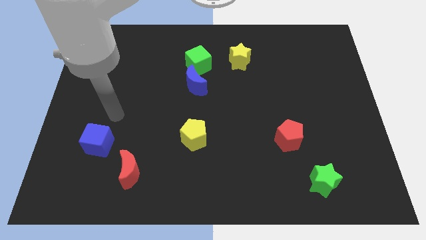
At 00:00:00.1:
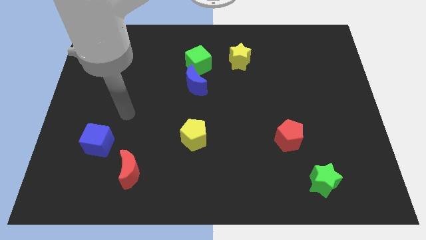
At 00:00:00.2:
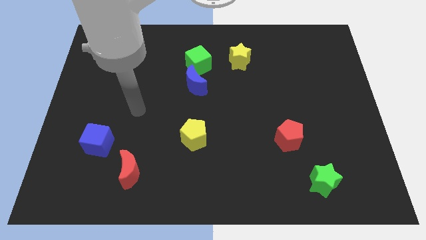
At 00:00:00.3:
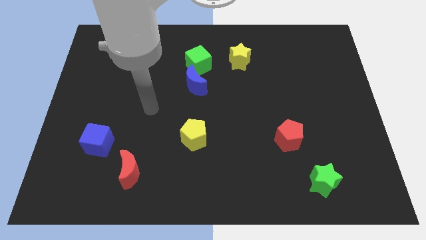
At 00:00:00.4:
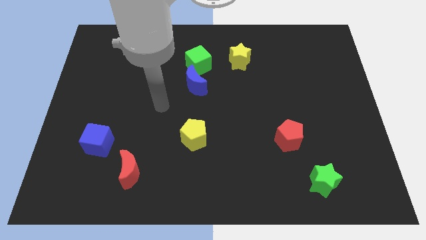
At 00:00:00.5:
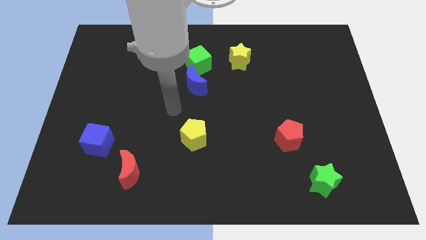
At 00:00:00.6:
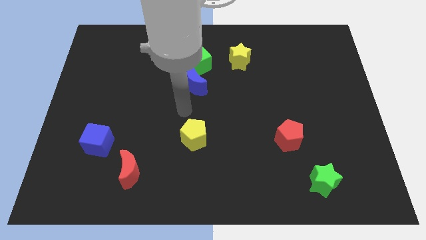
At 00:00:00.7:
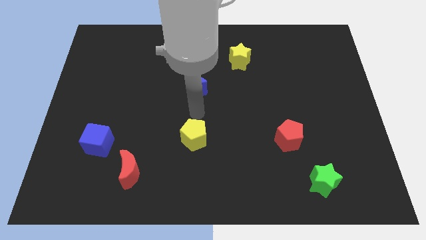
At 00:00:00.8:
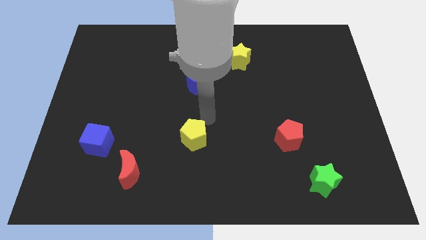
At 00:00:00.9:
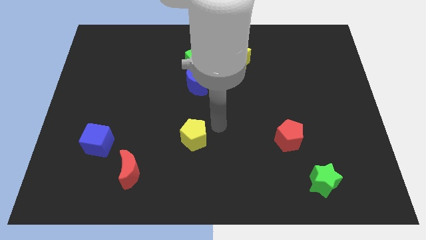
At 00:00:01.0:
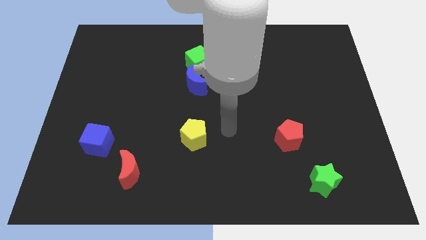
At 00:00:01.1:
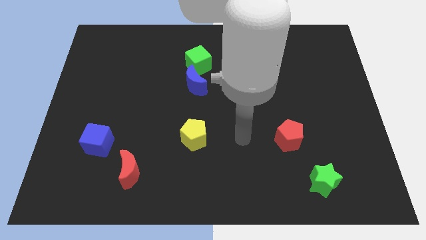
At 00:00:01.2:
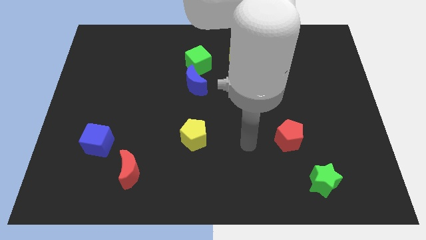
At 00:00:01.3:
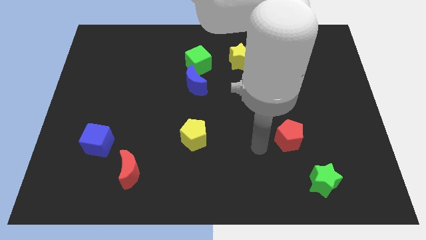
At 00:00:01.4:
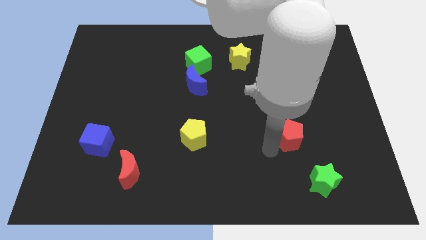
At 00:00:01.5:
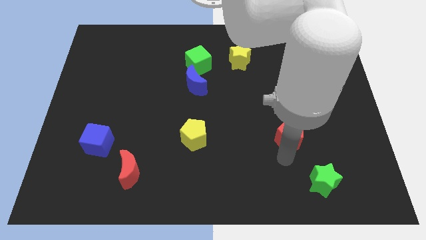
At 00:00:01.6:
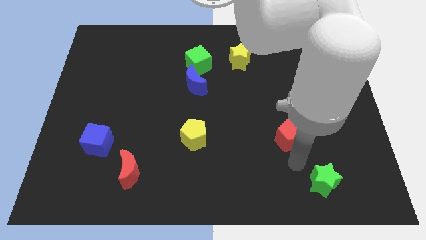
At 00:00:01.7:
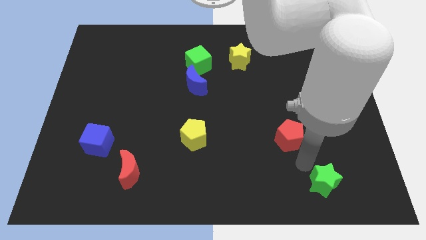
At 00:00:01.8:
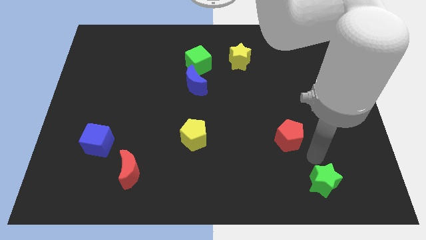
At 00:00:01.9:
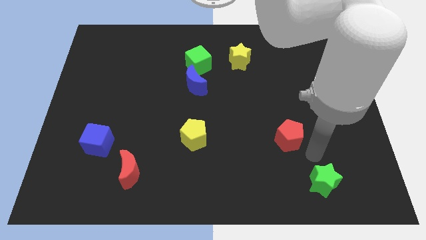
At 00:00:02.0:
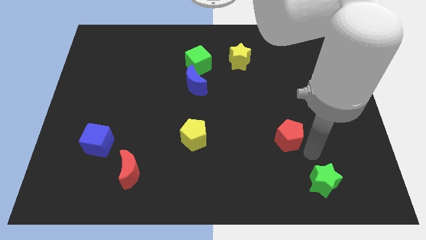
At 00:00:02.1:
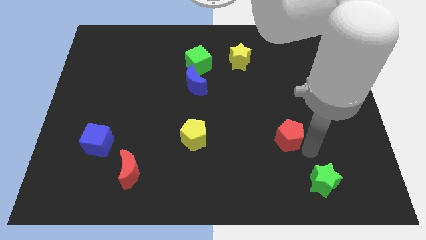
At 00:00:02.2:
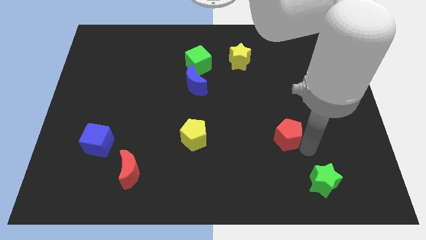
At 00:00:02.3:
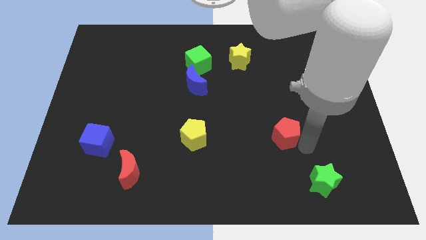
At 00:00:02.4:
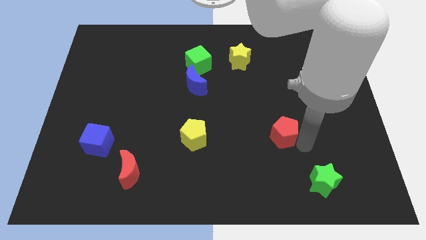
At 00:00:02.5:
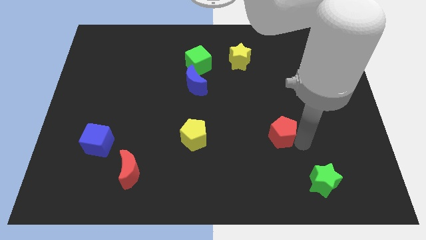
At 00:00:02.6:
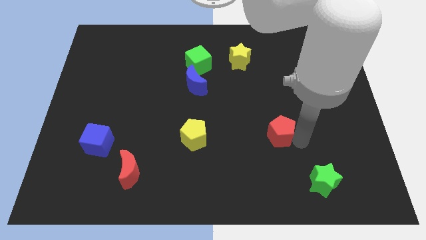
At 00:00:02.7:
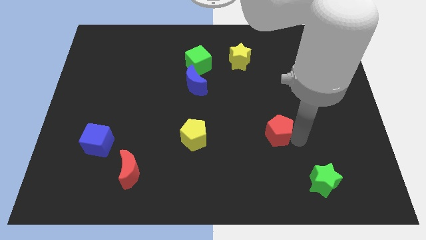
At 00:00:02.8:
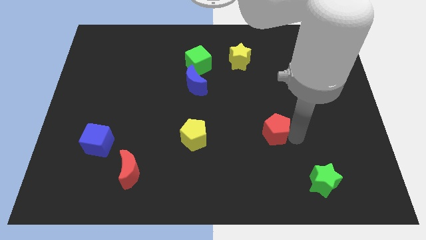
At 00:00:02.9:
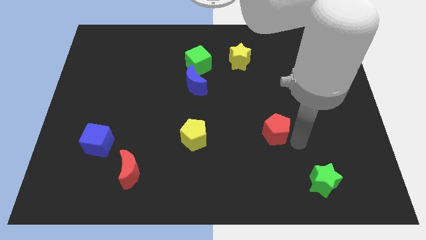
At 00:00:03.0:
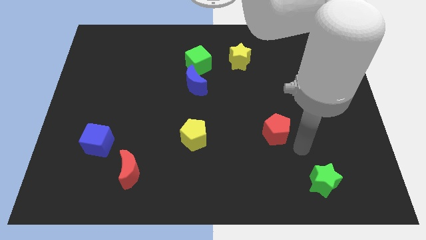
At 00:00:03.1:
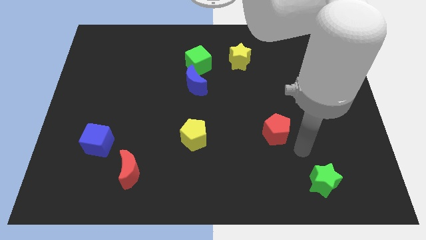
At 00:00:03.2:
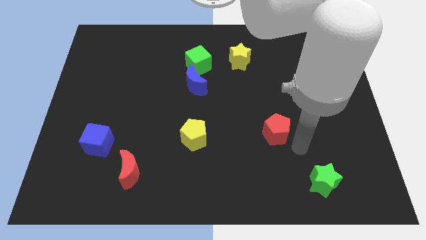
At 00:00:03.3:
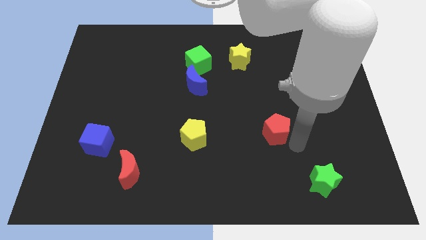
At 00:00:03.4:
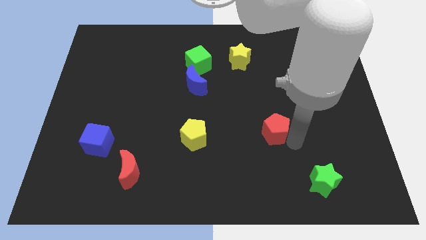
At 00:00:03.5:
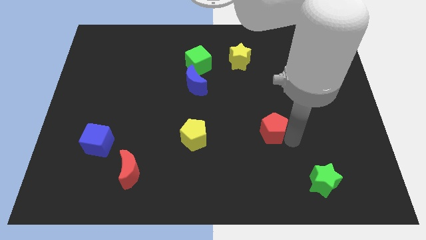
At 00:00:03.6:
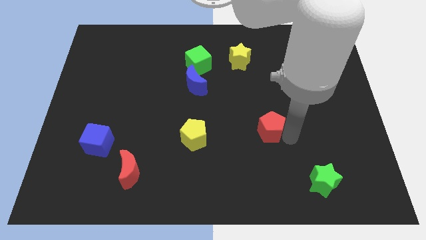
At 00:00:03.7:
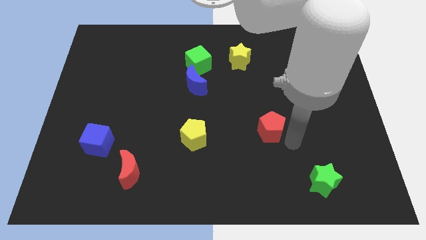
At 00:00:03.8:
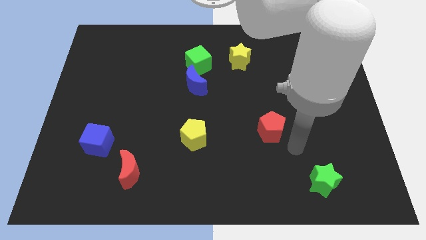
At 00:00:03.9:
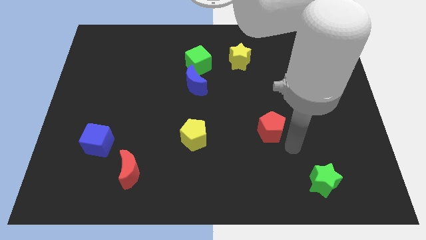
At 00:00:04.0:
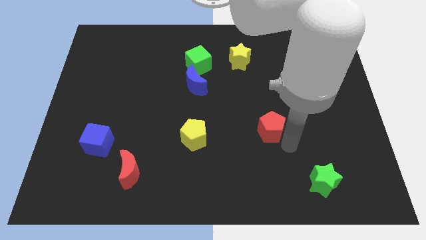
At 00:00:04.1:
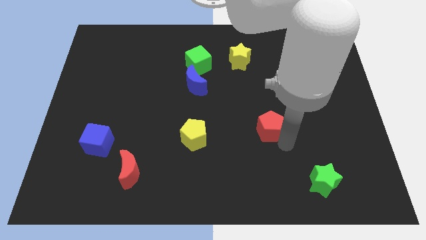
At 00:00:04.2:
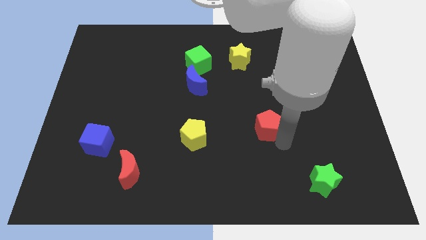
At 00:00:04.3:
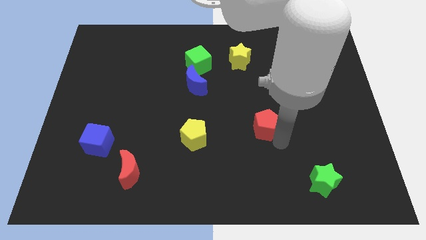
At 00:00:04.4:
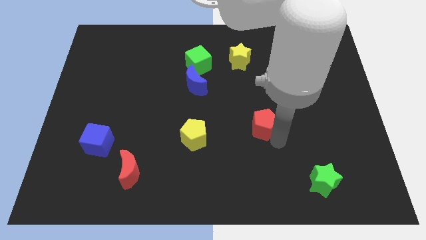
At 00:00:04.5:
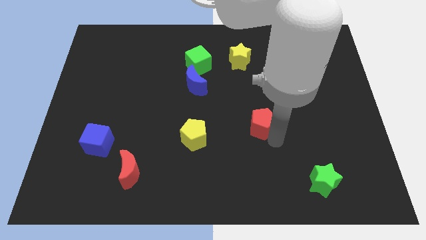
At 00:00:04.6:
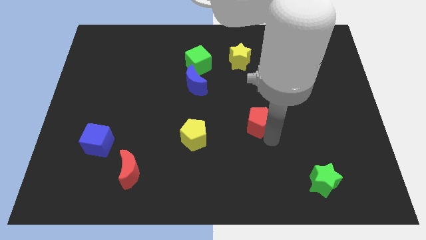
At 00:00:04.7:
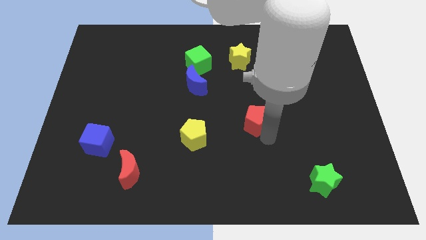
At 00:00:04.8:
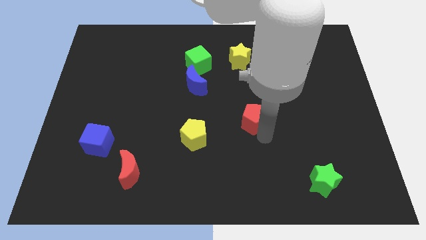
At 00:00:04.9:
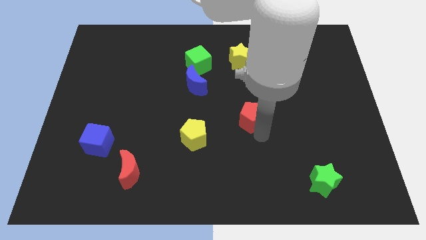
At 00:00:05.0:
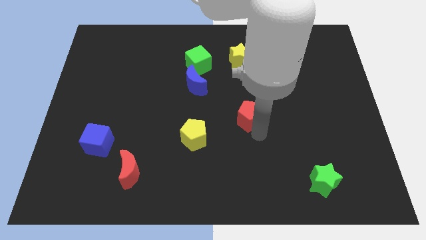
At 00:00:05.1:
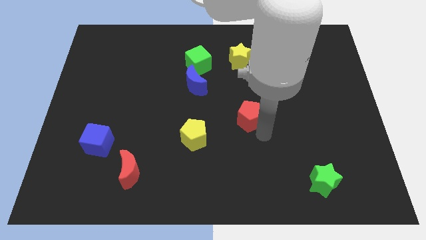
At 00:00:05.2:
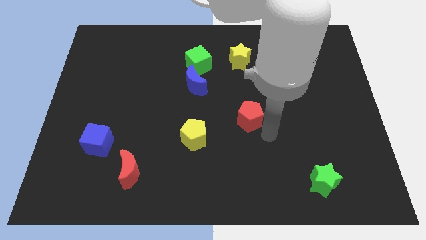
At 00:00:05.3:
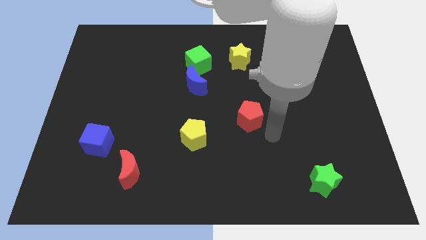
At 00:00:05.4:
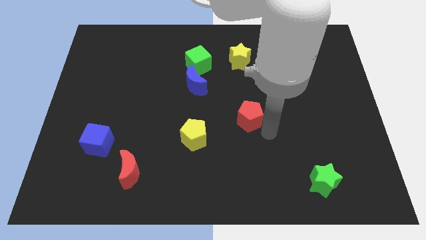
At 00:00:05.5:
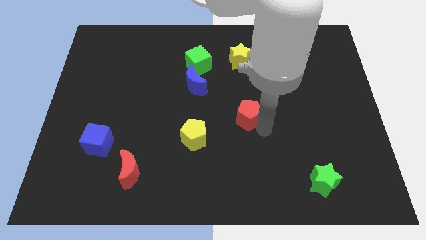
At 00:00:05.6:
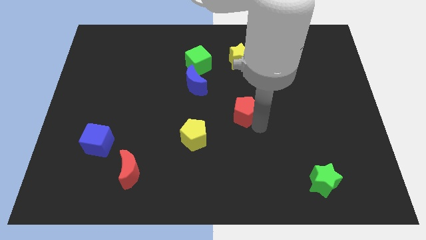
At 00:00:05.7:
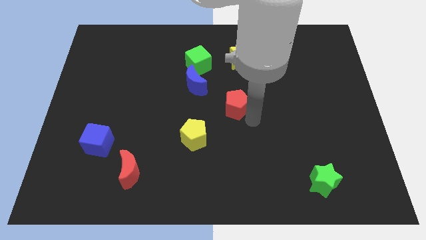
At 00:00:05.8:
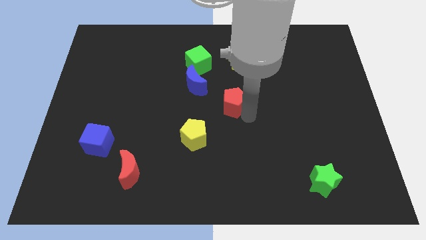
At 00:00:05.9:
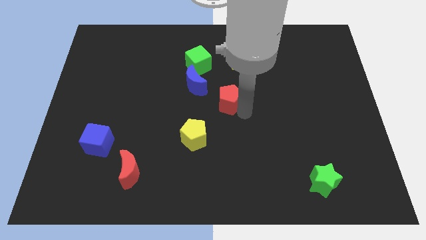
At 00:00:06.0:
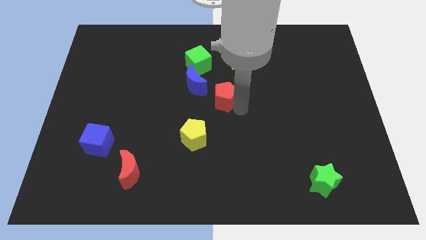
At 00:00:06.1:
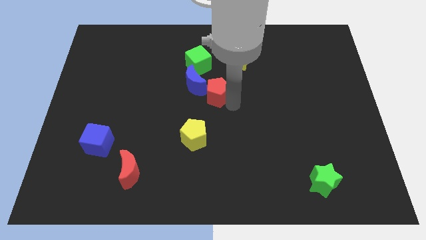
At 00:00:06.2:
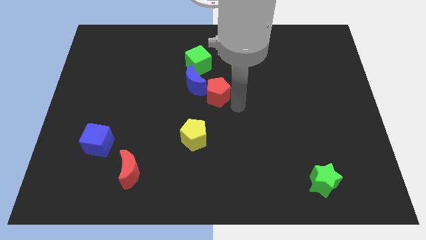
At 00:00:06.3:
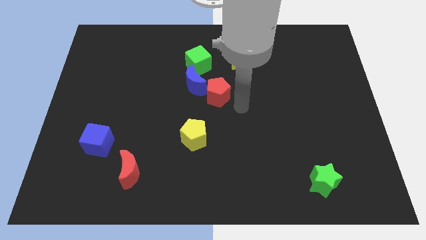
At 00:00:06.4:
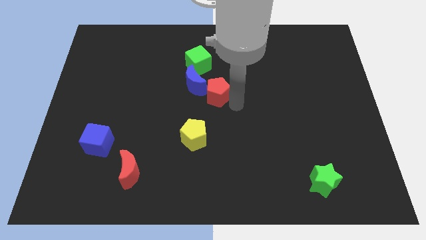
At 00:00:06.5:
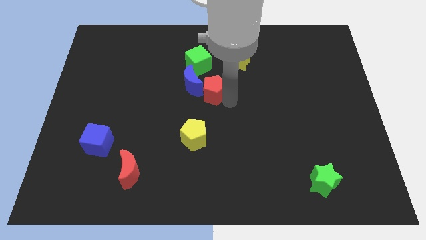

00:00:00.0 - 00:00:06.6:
push the red pentagon next to the blue moon

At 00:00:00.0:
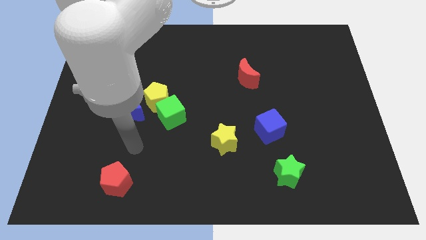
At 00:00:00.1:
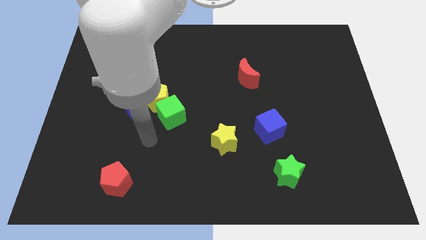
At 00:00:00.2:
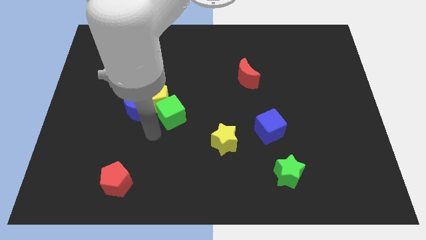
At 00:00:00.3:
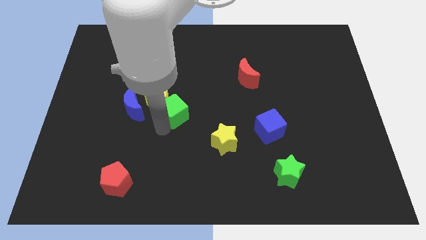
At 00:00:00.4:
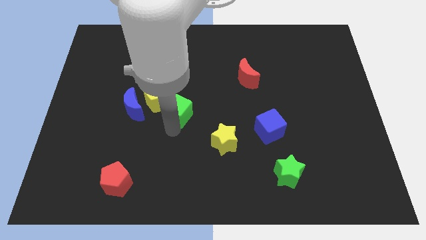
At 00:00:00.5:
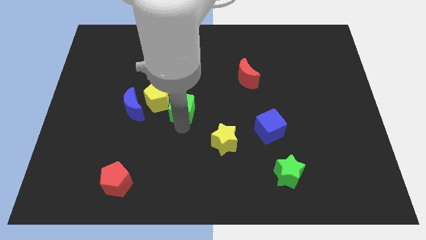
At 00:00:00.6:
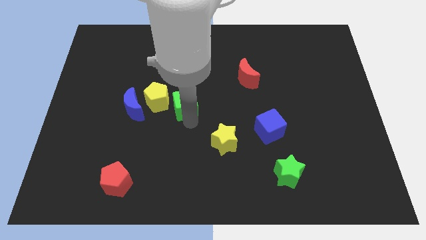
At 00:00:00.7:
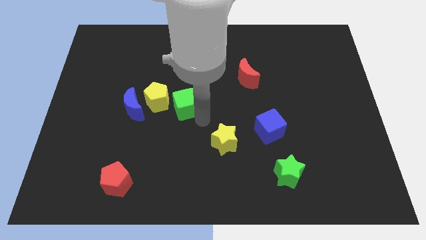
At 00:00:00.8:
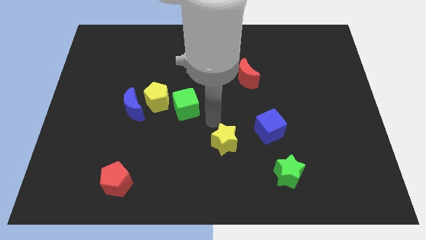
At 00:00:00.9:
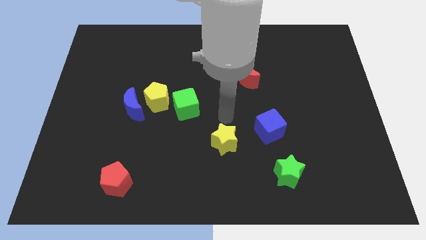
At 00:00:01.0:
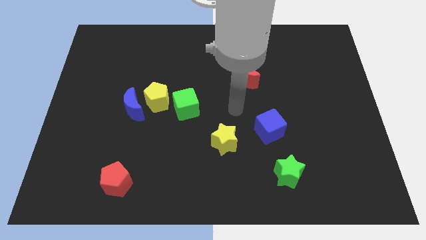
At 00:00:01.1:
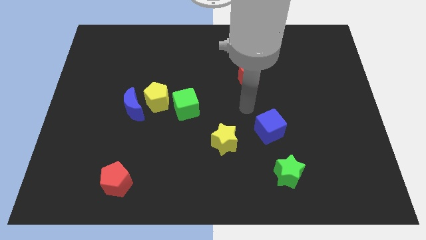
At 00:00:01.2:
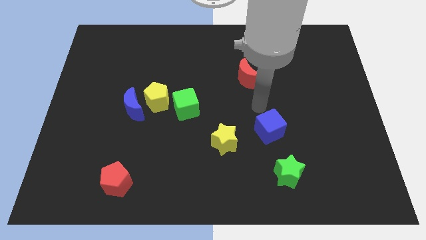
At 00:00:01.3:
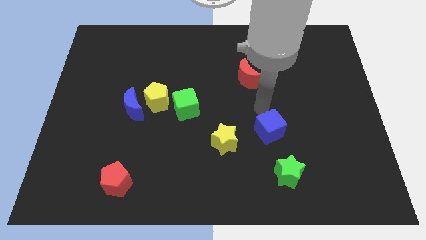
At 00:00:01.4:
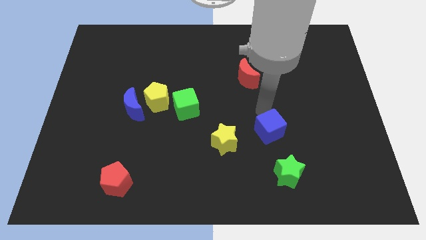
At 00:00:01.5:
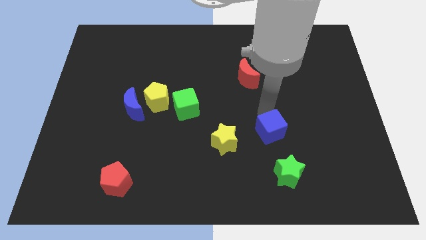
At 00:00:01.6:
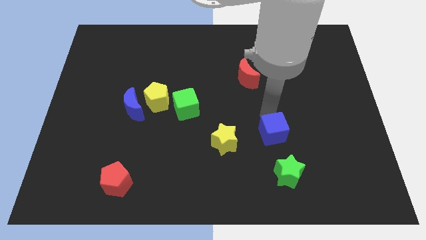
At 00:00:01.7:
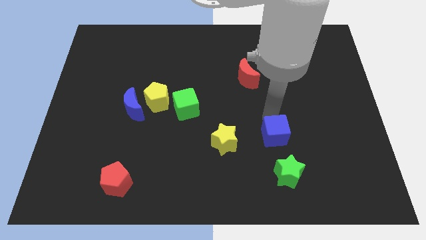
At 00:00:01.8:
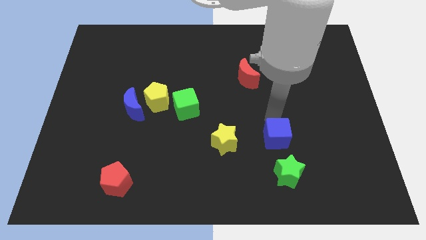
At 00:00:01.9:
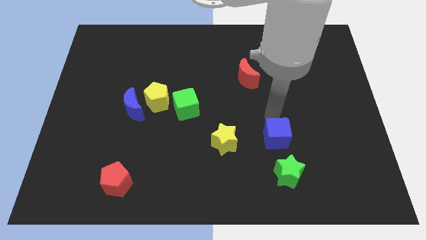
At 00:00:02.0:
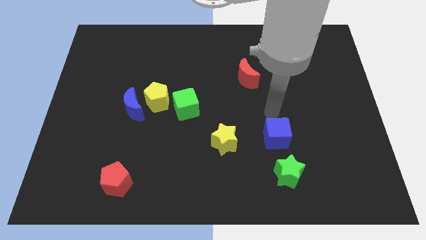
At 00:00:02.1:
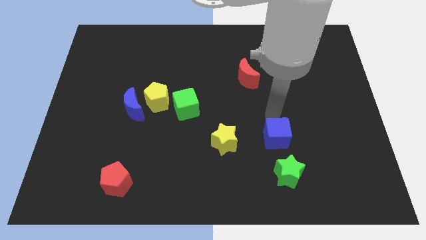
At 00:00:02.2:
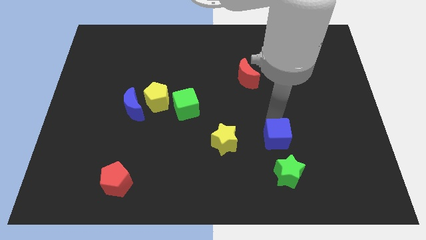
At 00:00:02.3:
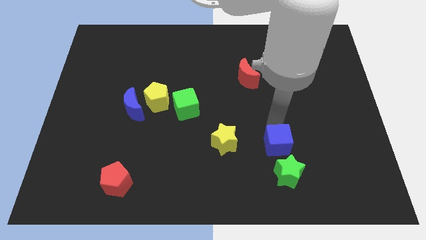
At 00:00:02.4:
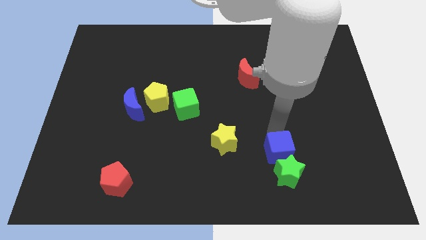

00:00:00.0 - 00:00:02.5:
slide the blue cube next to the green star
